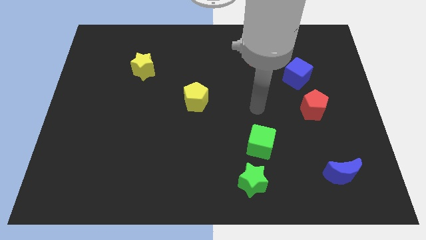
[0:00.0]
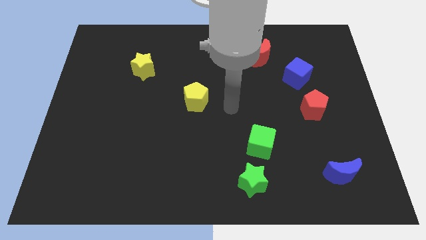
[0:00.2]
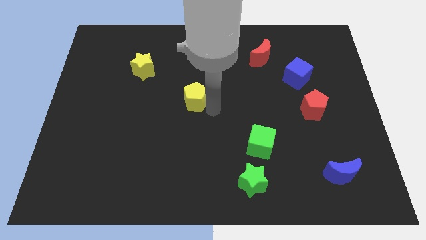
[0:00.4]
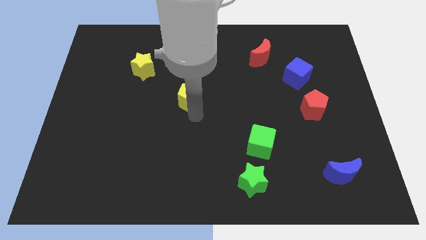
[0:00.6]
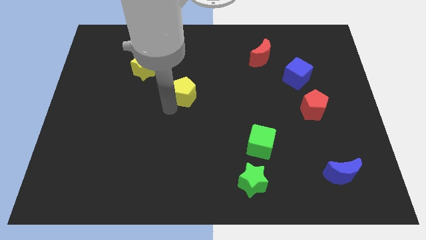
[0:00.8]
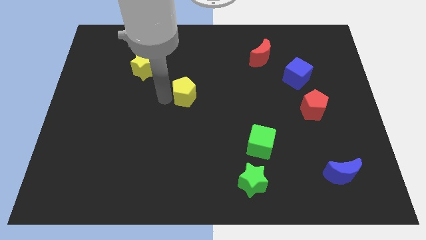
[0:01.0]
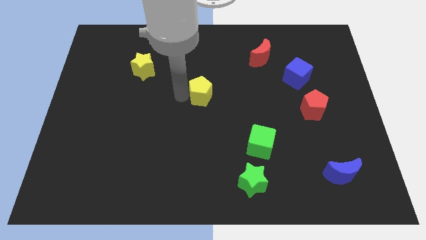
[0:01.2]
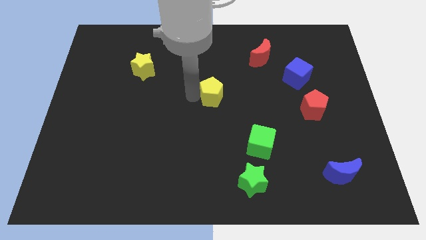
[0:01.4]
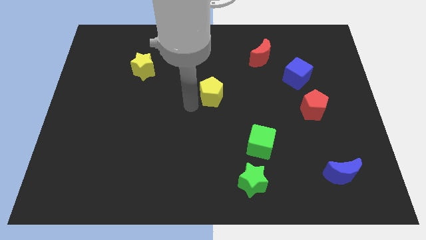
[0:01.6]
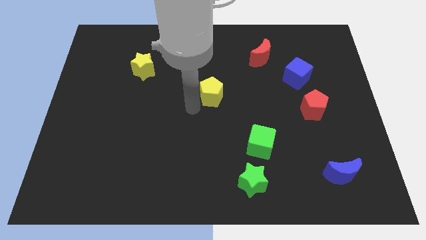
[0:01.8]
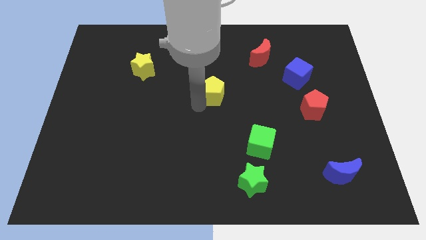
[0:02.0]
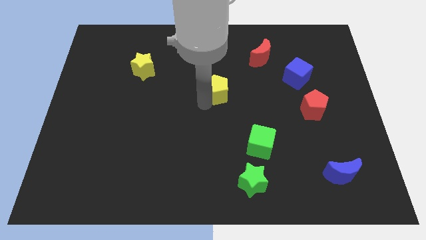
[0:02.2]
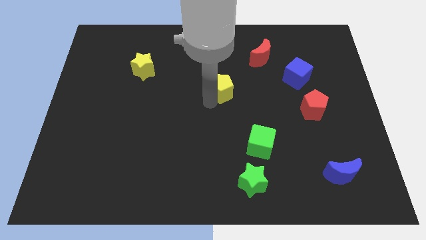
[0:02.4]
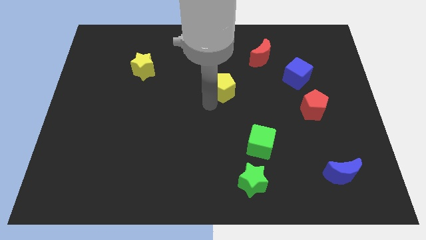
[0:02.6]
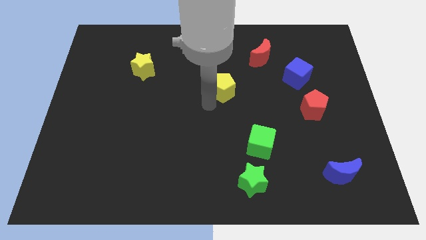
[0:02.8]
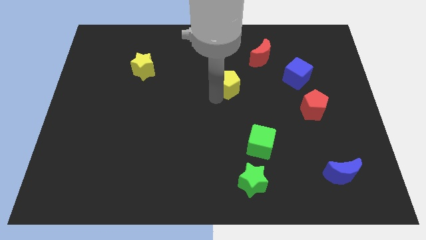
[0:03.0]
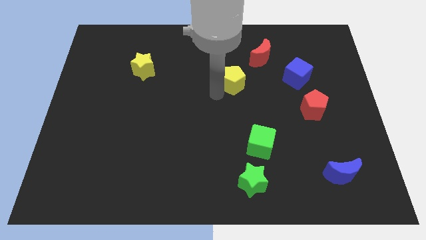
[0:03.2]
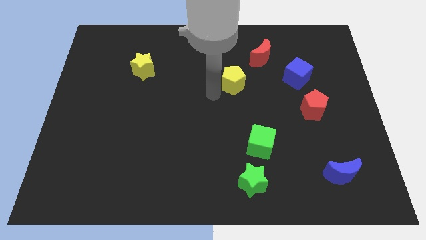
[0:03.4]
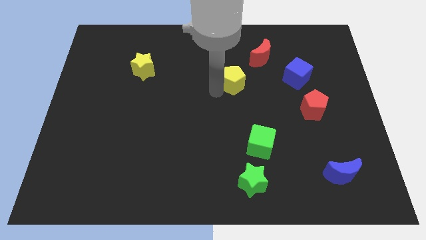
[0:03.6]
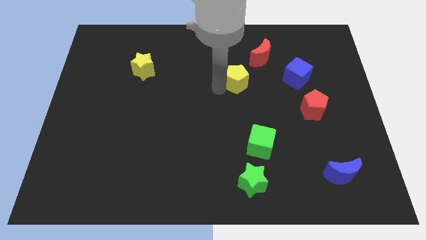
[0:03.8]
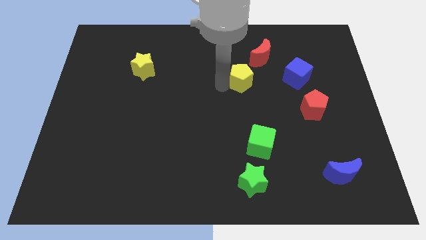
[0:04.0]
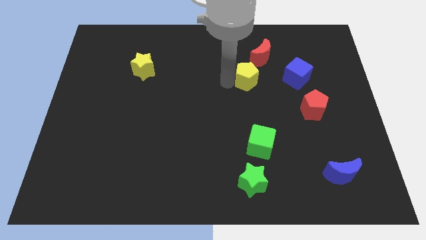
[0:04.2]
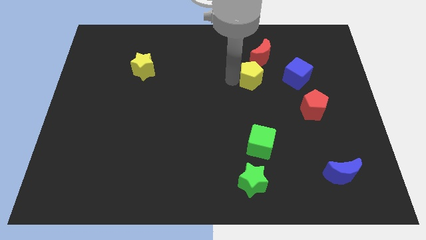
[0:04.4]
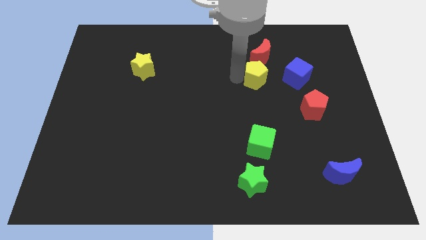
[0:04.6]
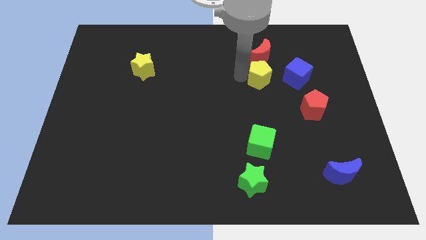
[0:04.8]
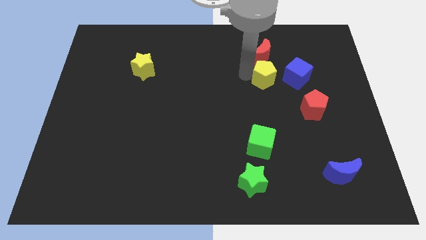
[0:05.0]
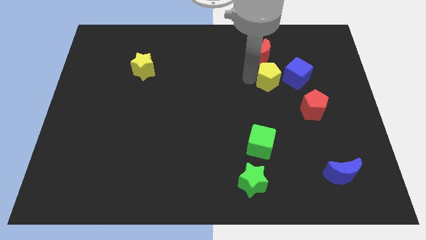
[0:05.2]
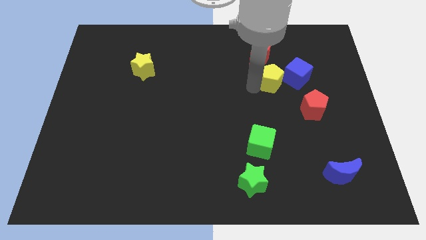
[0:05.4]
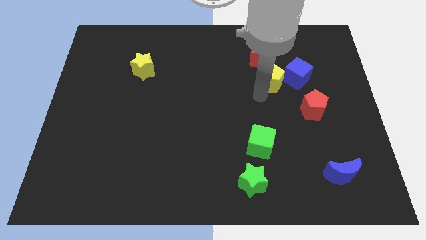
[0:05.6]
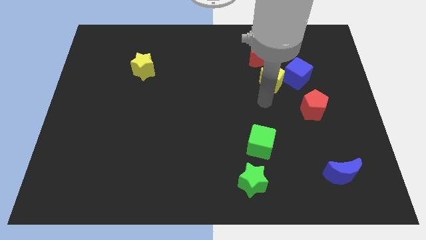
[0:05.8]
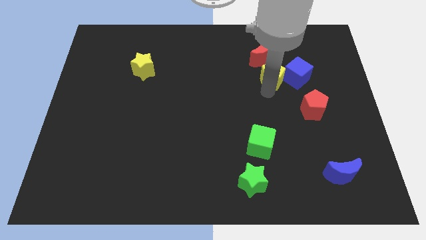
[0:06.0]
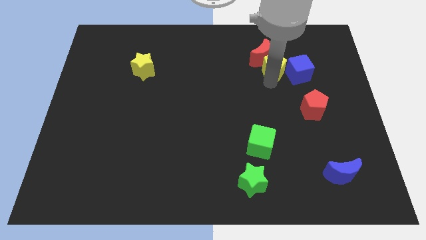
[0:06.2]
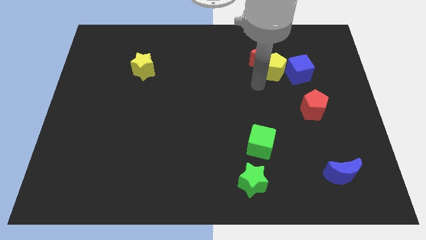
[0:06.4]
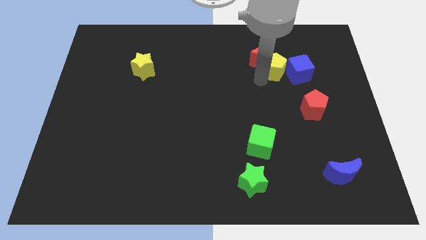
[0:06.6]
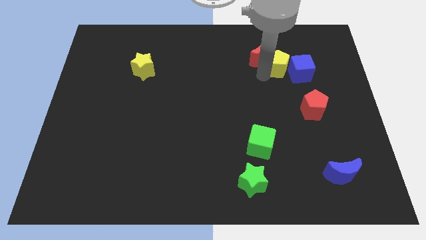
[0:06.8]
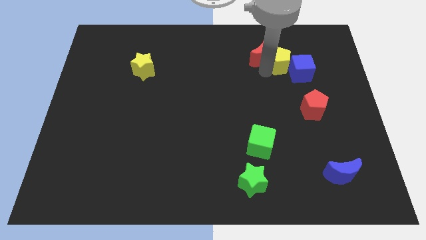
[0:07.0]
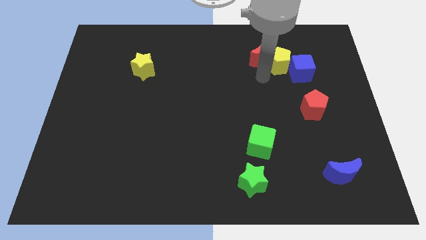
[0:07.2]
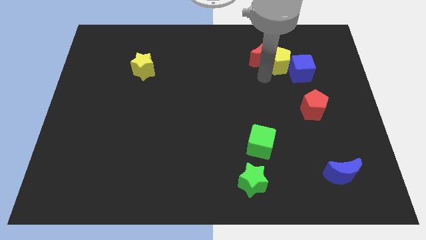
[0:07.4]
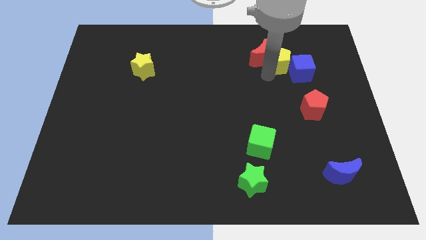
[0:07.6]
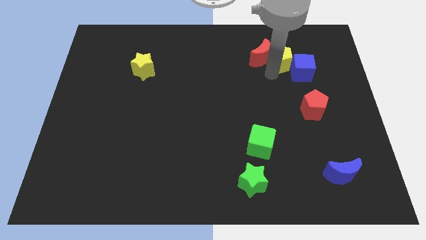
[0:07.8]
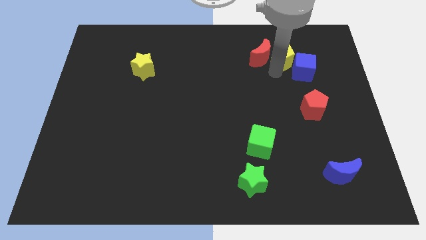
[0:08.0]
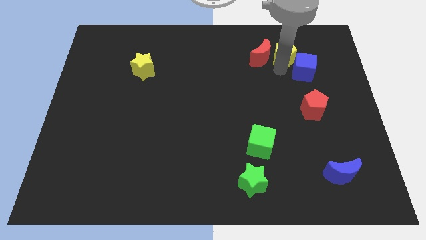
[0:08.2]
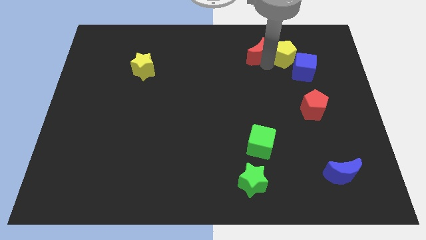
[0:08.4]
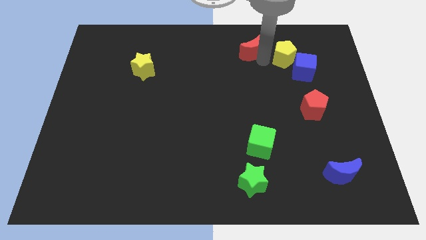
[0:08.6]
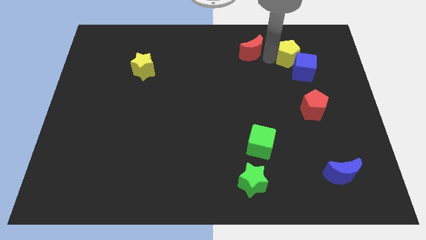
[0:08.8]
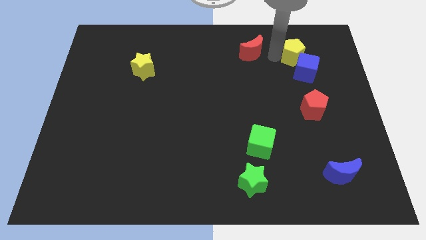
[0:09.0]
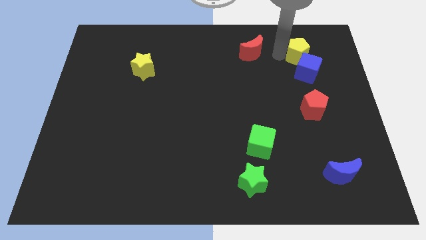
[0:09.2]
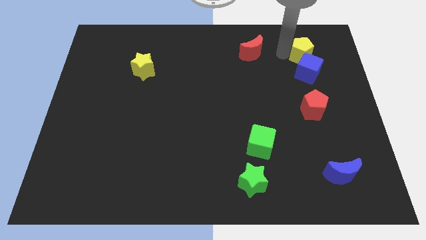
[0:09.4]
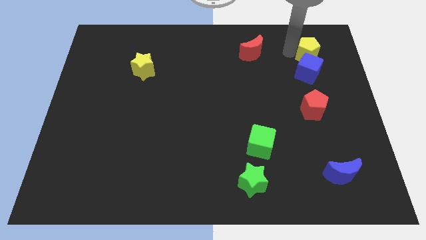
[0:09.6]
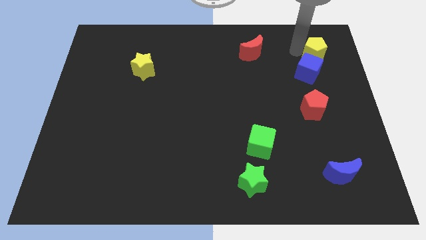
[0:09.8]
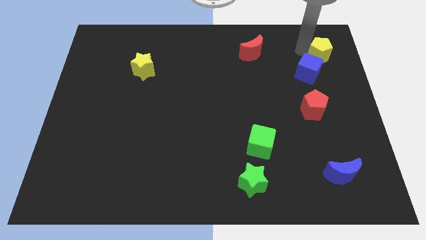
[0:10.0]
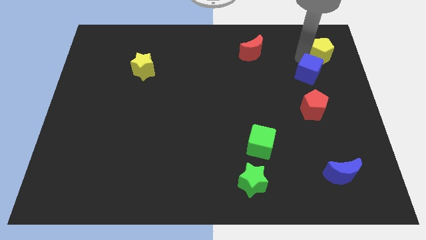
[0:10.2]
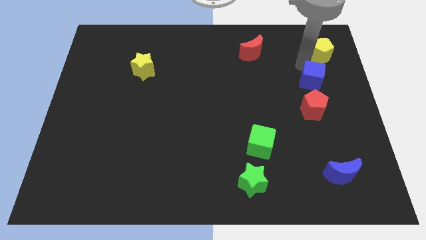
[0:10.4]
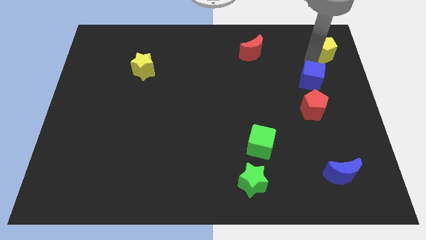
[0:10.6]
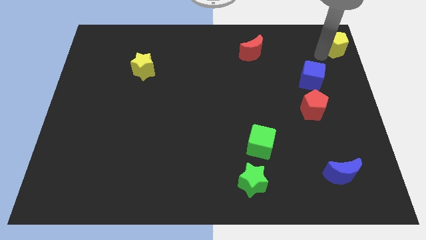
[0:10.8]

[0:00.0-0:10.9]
slide the yellow pentagon to the top right

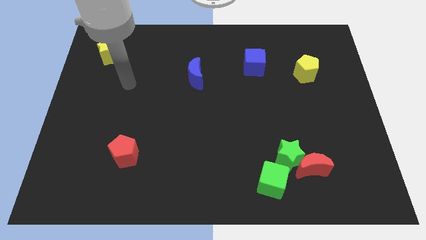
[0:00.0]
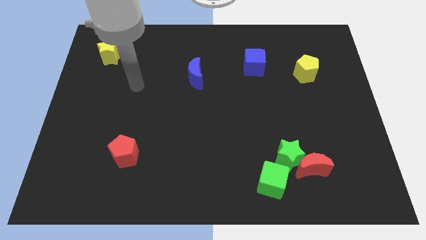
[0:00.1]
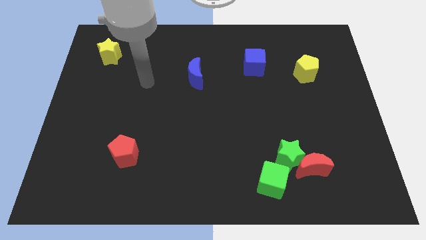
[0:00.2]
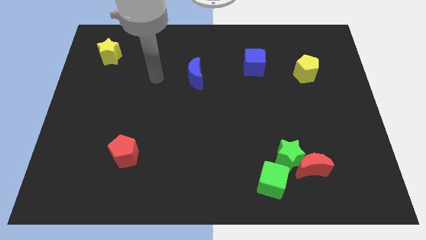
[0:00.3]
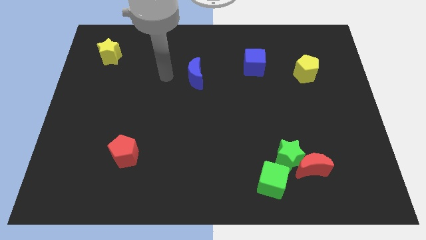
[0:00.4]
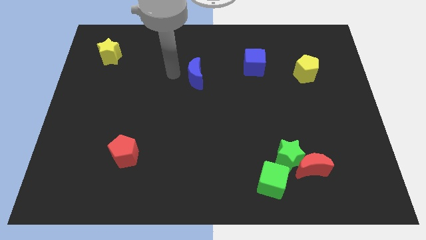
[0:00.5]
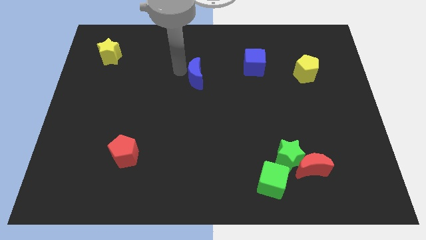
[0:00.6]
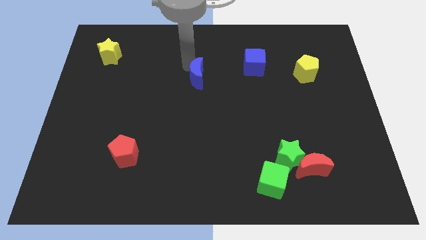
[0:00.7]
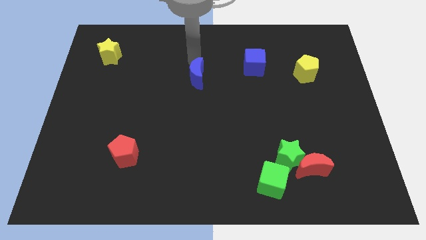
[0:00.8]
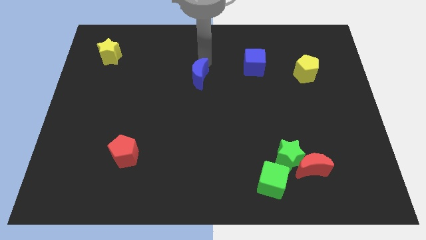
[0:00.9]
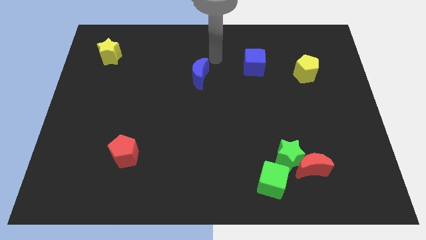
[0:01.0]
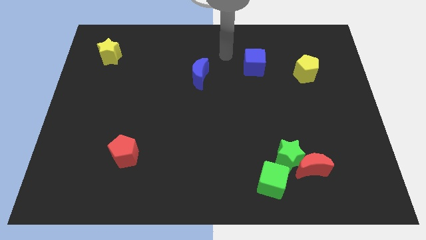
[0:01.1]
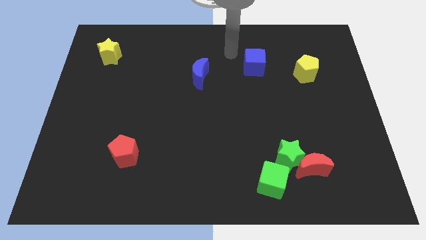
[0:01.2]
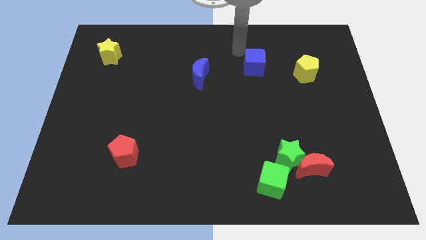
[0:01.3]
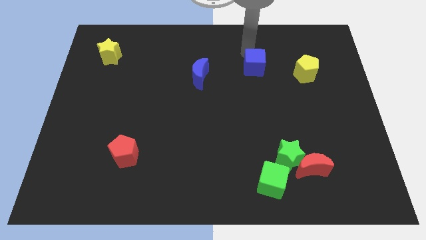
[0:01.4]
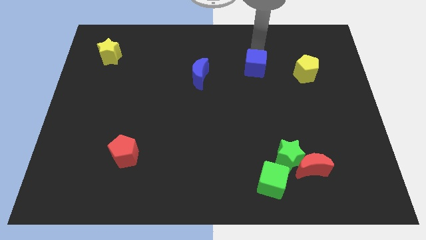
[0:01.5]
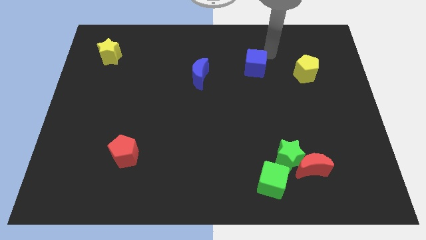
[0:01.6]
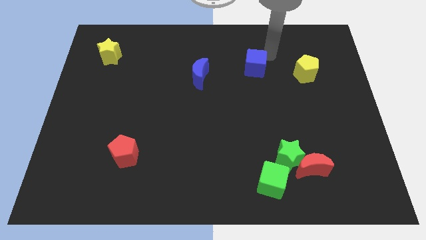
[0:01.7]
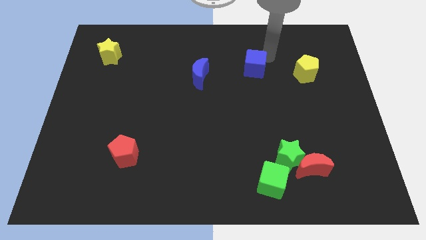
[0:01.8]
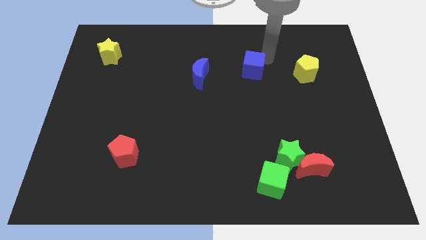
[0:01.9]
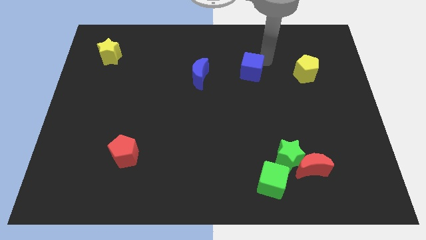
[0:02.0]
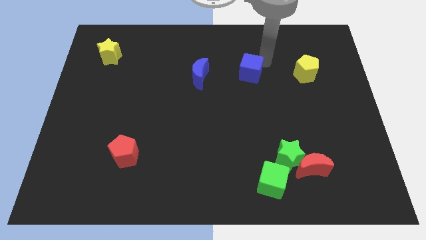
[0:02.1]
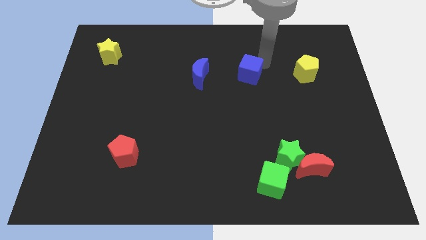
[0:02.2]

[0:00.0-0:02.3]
put the blue cube to the middle
